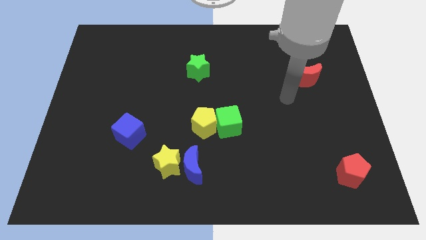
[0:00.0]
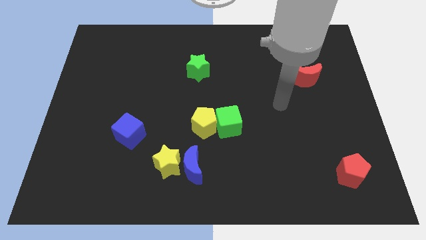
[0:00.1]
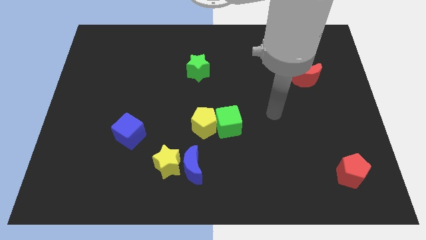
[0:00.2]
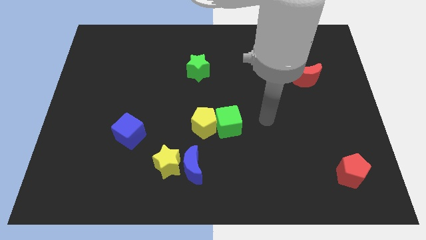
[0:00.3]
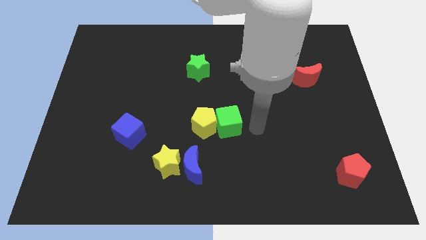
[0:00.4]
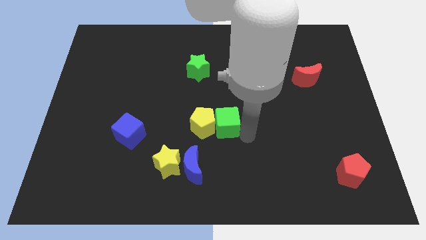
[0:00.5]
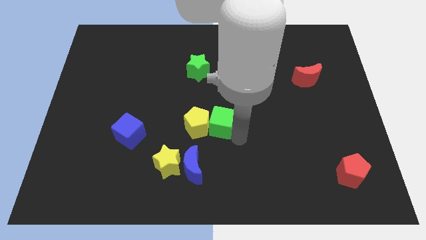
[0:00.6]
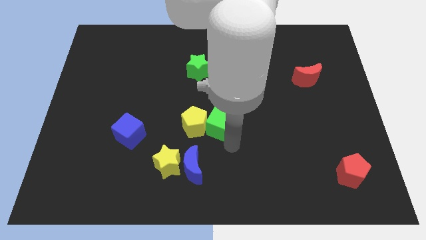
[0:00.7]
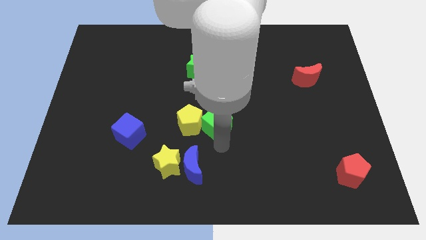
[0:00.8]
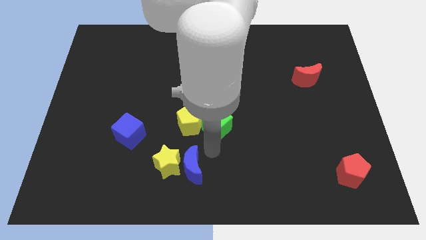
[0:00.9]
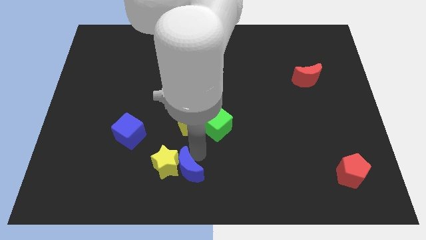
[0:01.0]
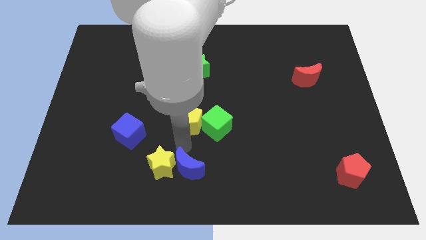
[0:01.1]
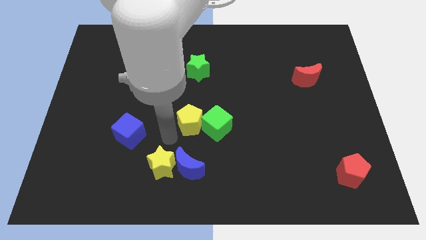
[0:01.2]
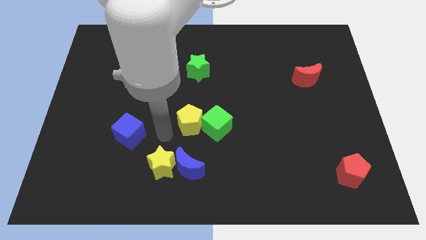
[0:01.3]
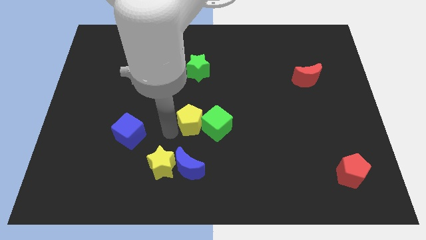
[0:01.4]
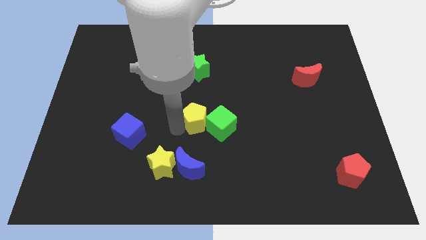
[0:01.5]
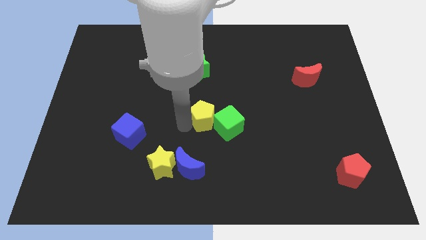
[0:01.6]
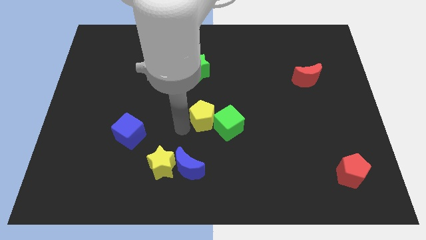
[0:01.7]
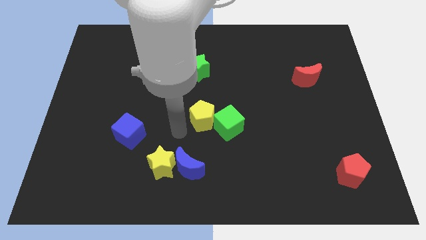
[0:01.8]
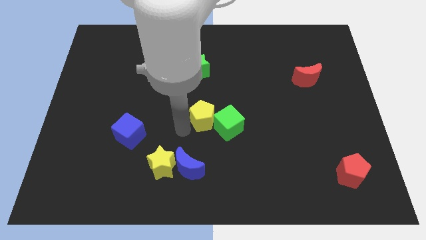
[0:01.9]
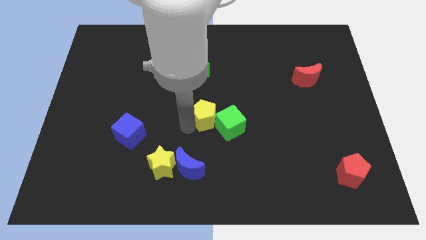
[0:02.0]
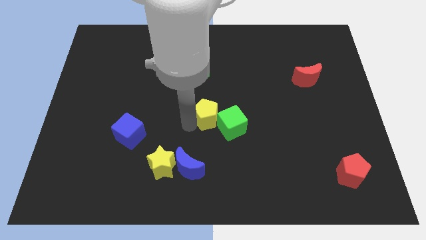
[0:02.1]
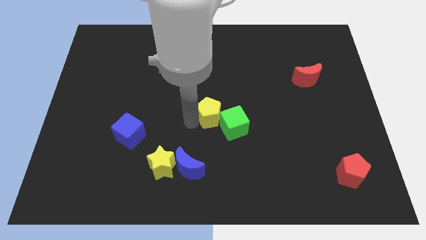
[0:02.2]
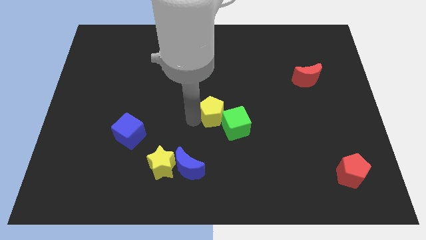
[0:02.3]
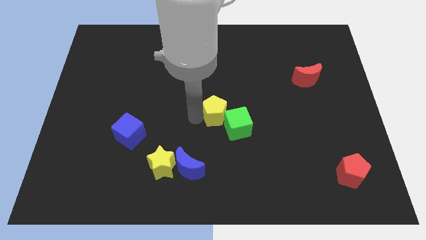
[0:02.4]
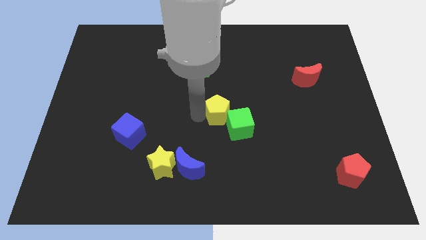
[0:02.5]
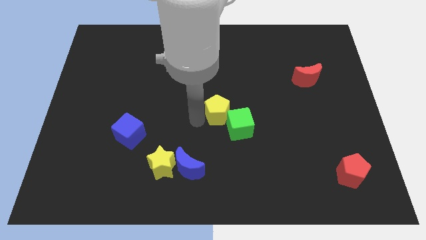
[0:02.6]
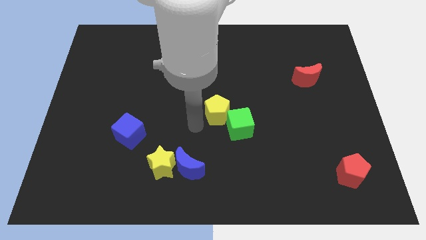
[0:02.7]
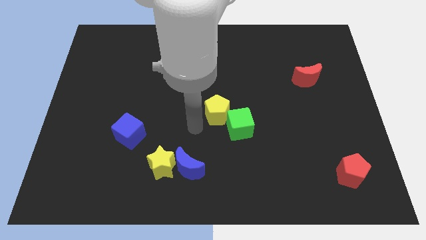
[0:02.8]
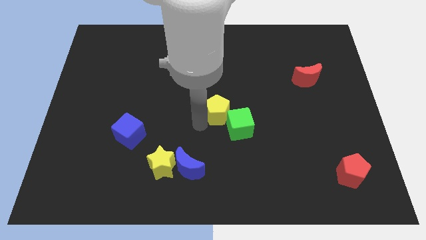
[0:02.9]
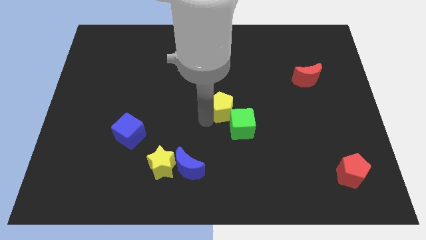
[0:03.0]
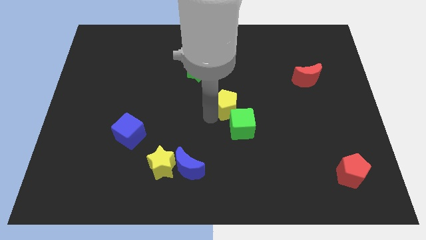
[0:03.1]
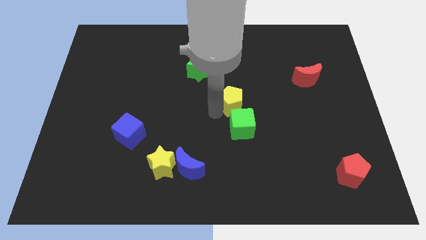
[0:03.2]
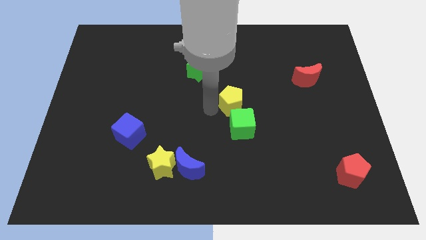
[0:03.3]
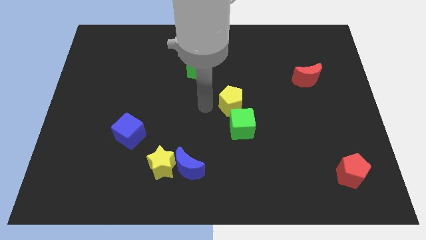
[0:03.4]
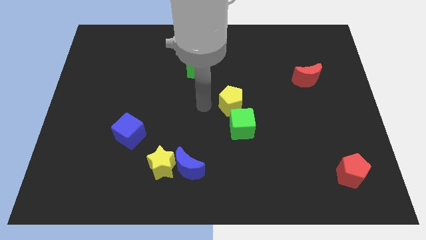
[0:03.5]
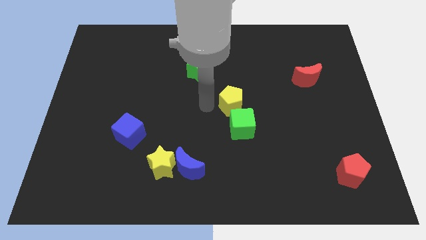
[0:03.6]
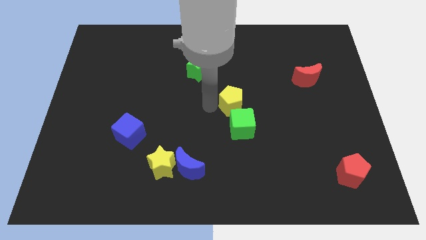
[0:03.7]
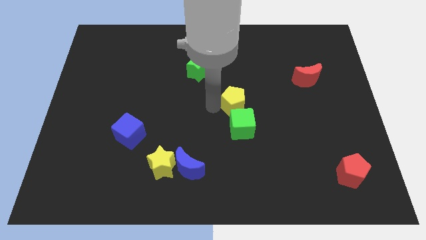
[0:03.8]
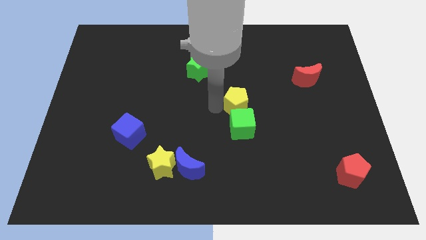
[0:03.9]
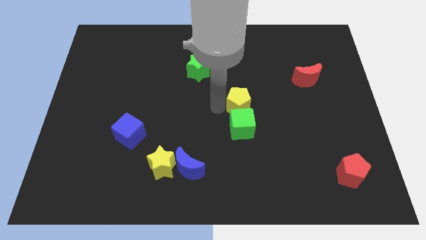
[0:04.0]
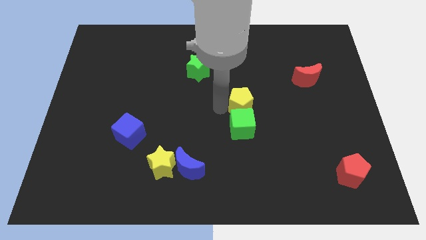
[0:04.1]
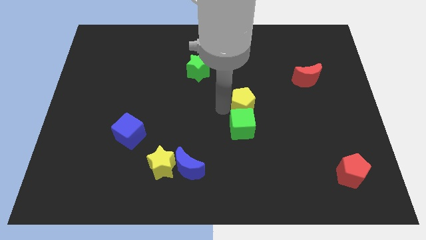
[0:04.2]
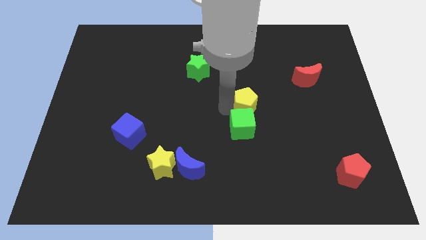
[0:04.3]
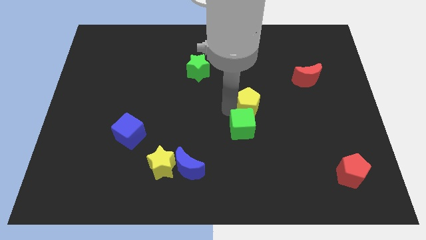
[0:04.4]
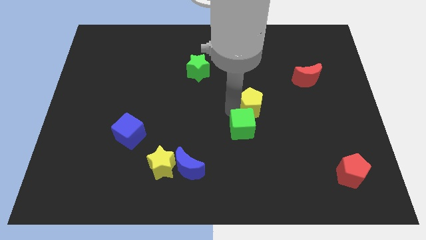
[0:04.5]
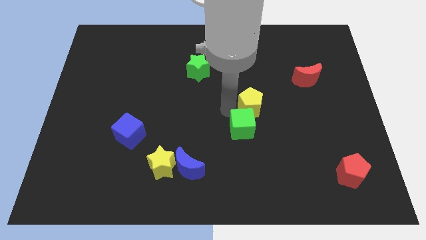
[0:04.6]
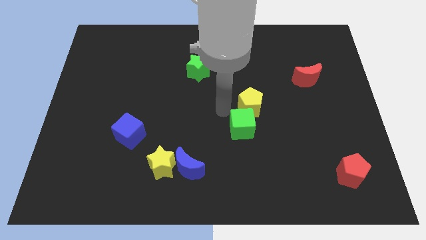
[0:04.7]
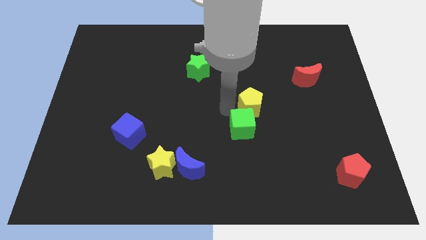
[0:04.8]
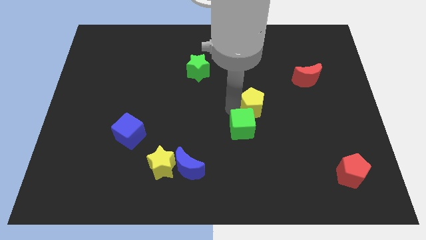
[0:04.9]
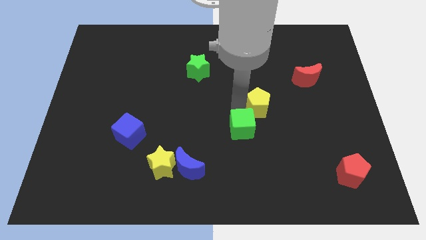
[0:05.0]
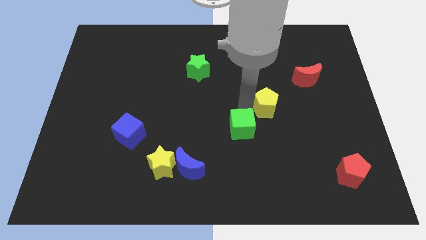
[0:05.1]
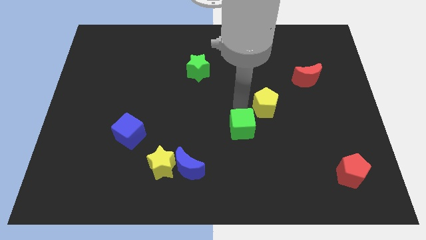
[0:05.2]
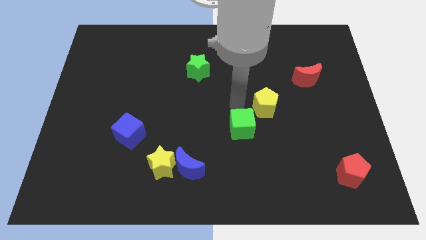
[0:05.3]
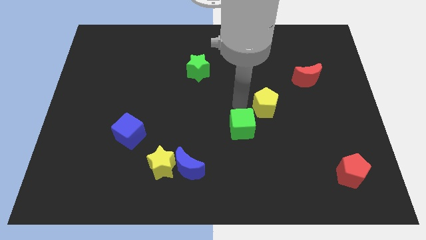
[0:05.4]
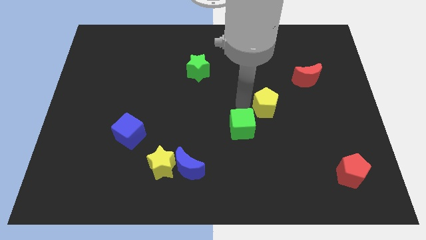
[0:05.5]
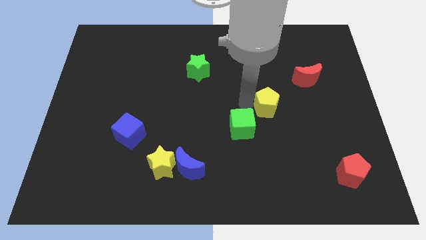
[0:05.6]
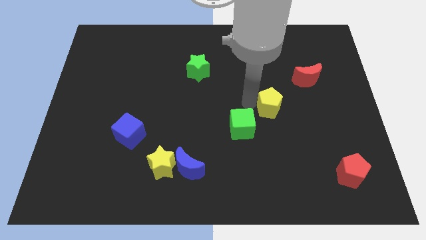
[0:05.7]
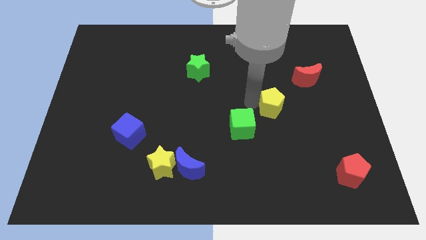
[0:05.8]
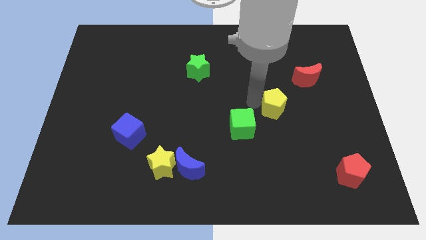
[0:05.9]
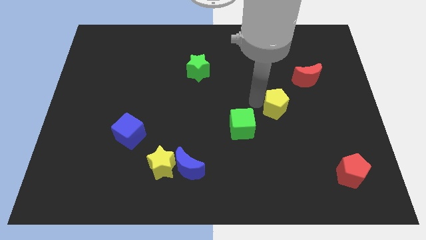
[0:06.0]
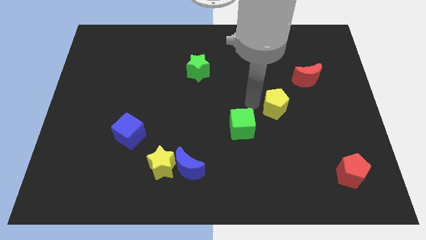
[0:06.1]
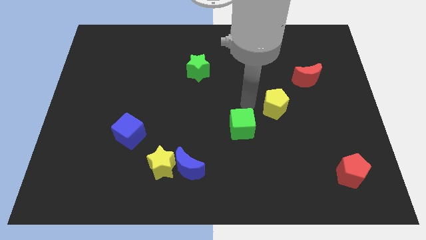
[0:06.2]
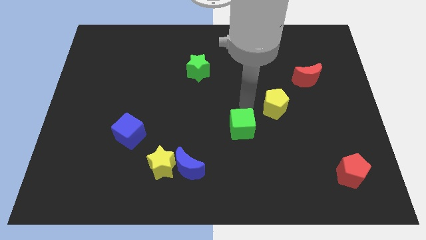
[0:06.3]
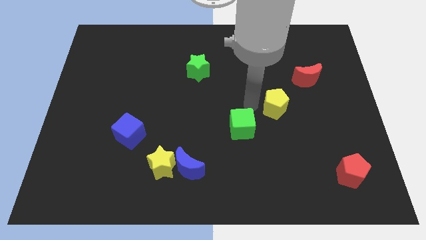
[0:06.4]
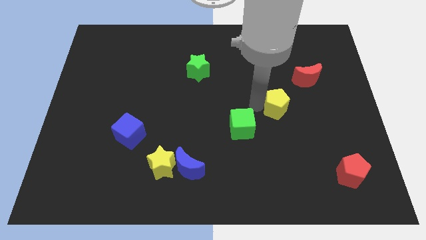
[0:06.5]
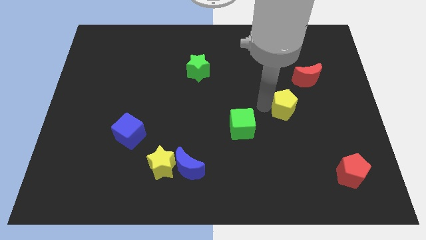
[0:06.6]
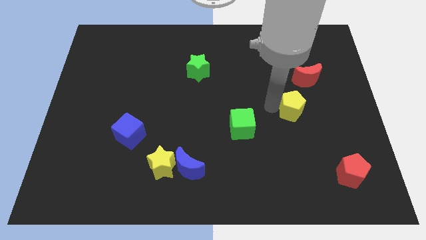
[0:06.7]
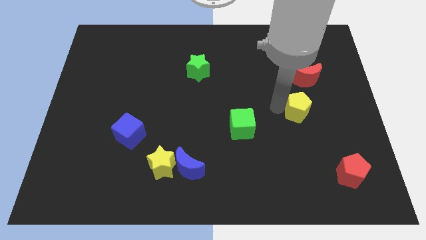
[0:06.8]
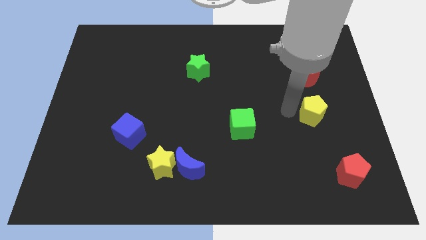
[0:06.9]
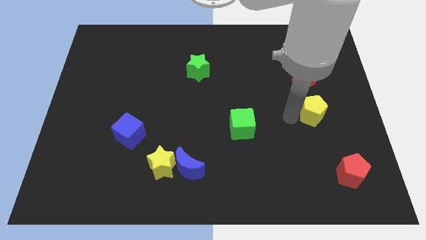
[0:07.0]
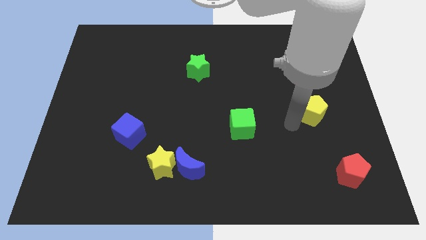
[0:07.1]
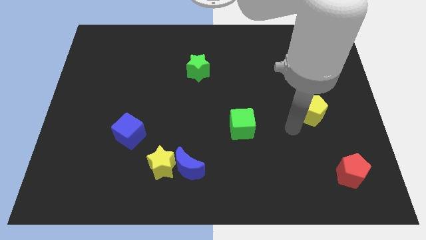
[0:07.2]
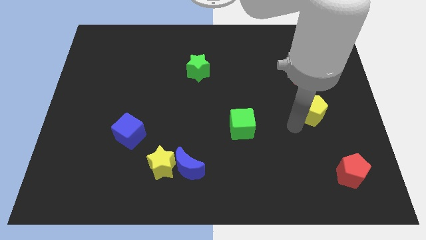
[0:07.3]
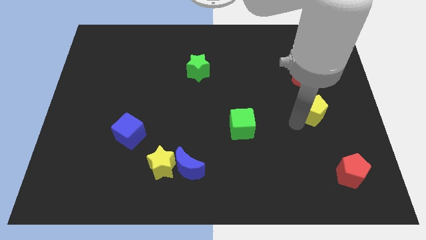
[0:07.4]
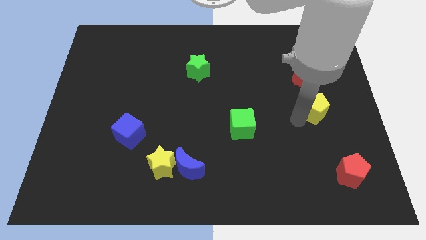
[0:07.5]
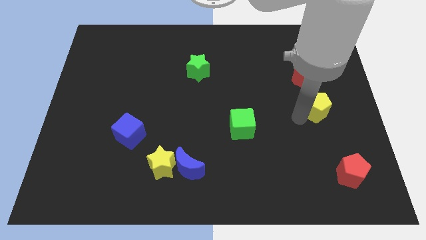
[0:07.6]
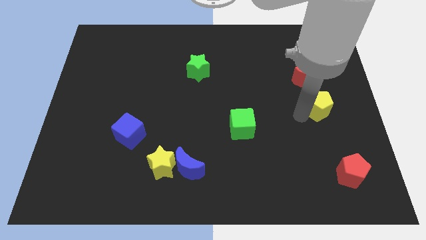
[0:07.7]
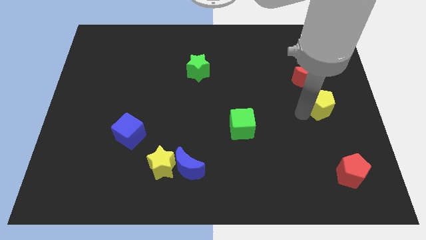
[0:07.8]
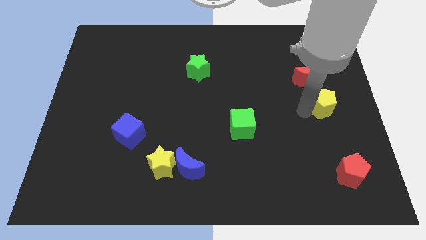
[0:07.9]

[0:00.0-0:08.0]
put the yellow pentagon to the bottom right side of the red moon

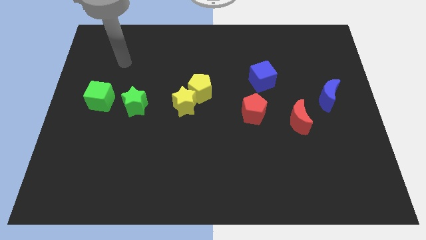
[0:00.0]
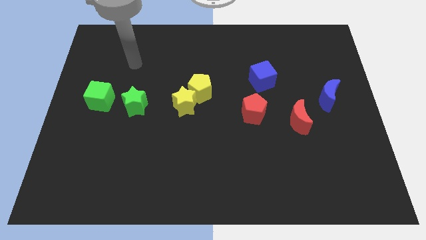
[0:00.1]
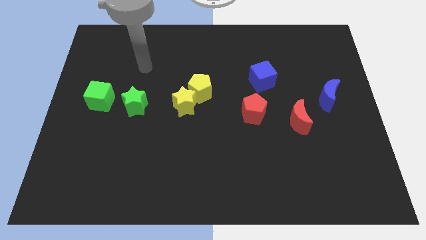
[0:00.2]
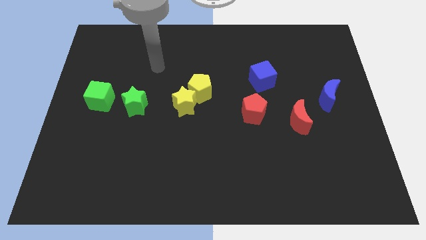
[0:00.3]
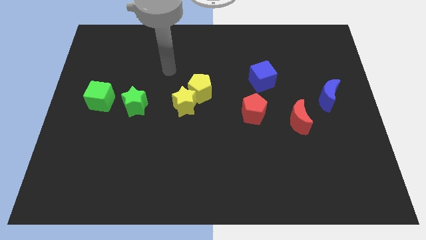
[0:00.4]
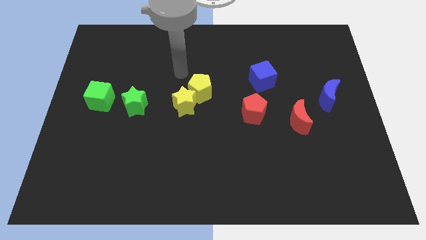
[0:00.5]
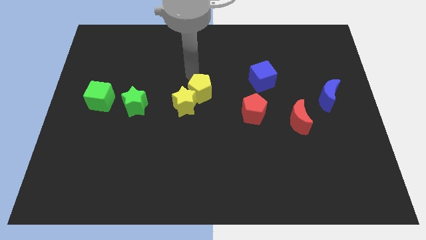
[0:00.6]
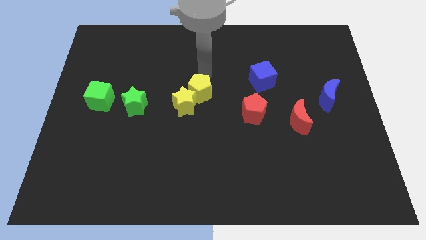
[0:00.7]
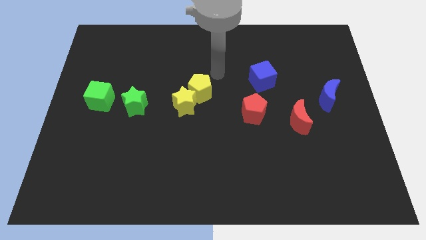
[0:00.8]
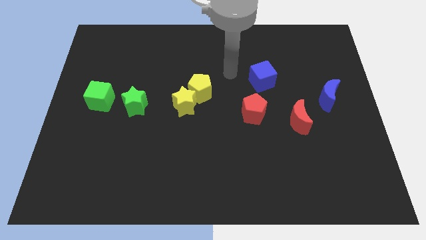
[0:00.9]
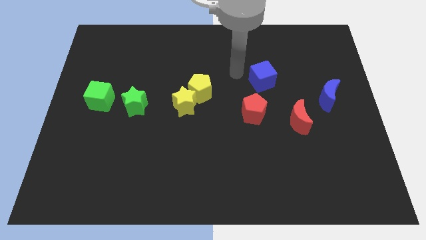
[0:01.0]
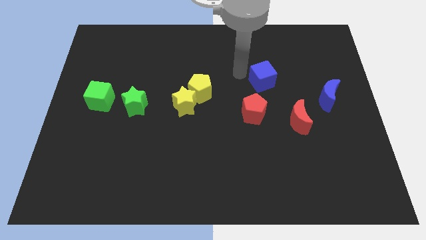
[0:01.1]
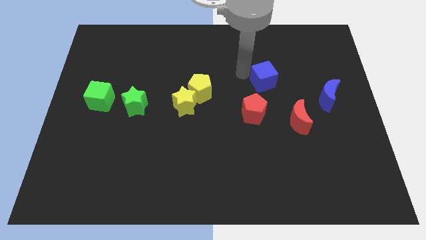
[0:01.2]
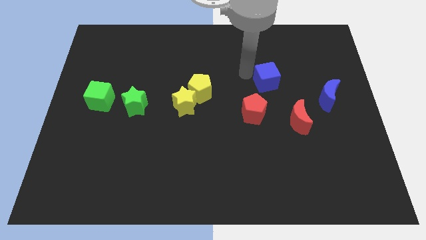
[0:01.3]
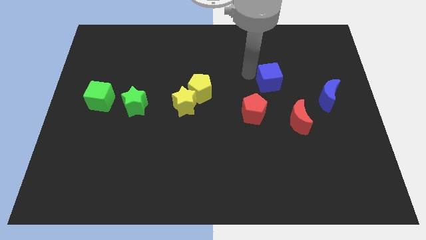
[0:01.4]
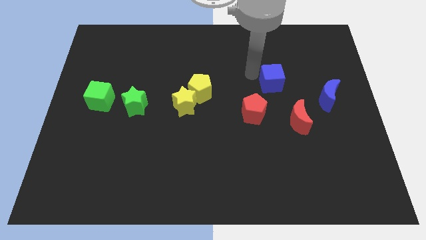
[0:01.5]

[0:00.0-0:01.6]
push the blue cube to the top of the red moon
